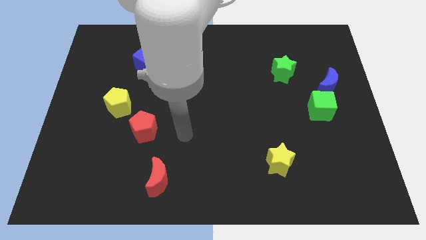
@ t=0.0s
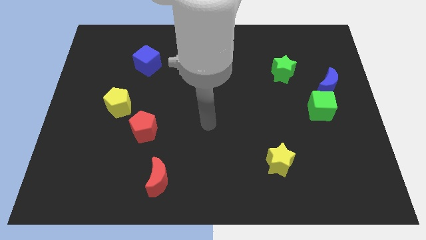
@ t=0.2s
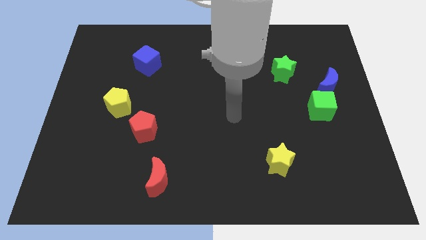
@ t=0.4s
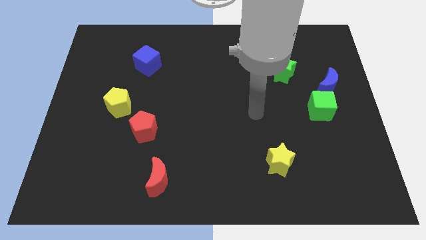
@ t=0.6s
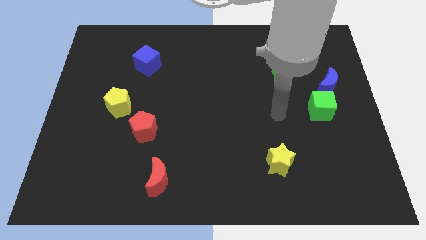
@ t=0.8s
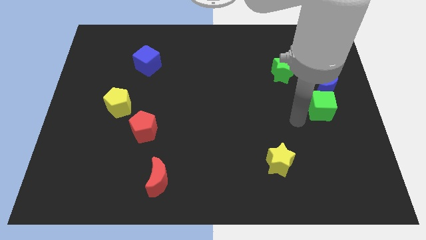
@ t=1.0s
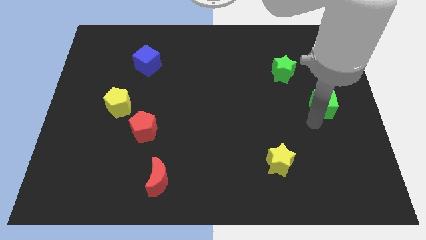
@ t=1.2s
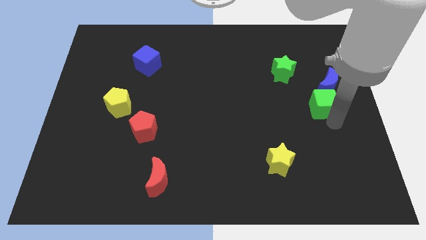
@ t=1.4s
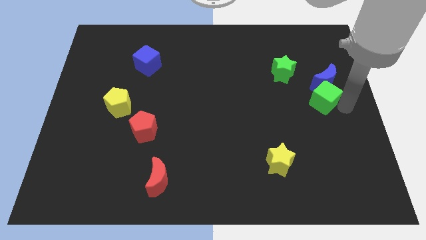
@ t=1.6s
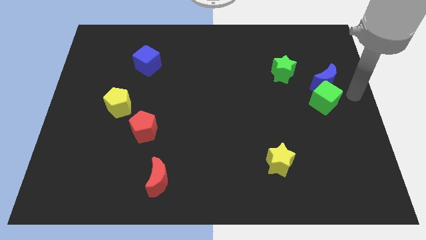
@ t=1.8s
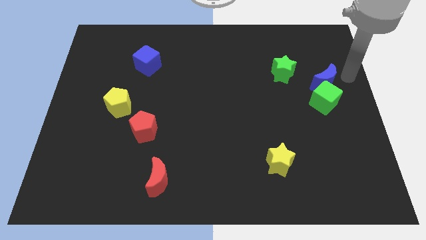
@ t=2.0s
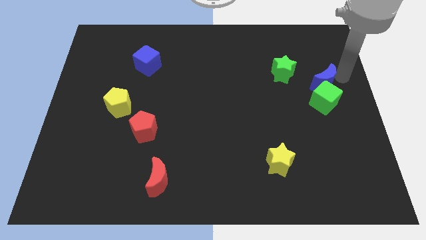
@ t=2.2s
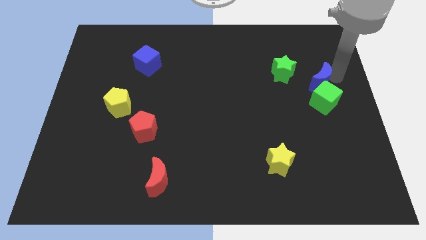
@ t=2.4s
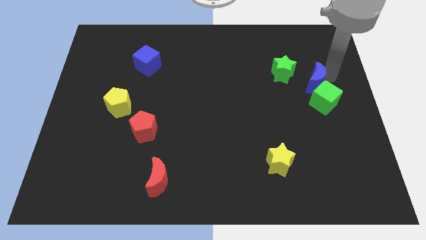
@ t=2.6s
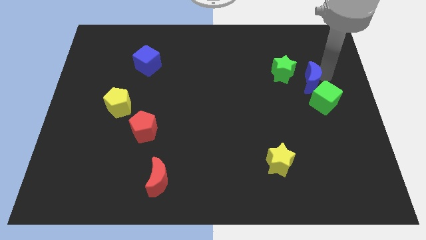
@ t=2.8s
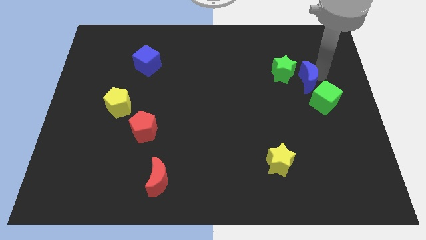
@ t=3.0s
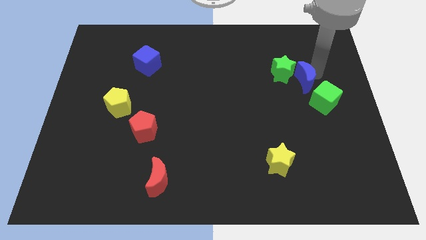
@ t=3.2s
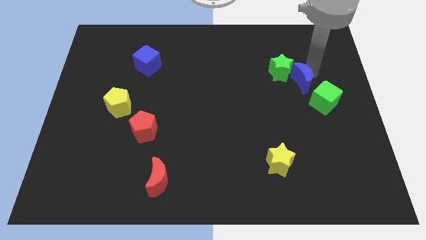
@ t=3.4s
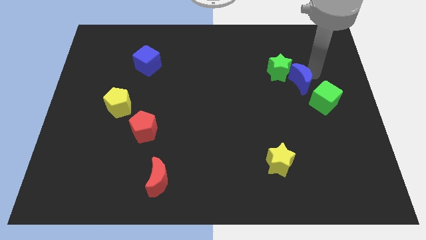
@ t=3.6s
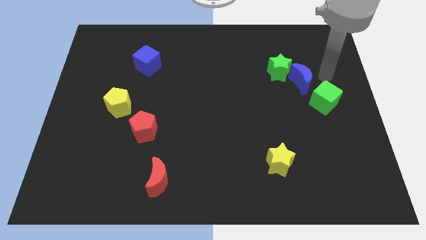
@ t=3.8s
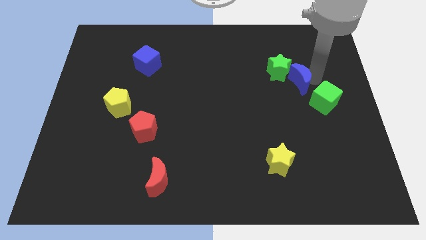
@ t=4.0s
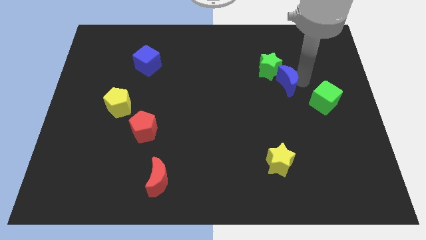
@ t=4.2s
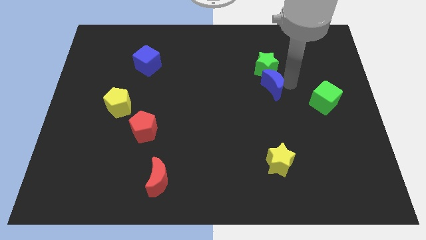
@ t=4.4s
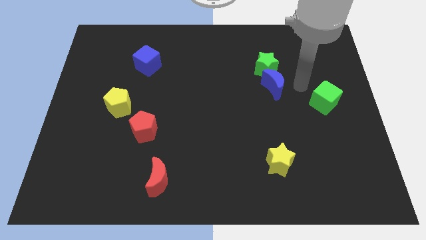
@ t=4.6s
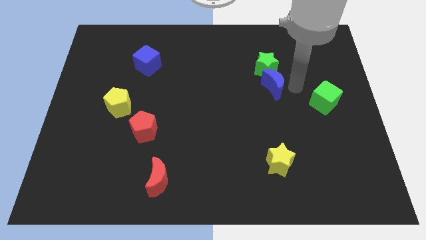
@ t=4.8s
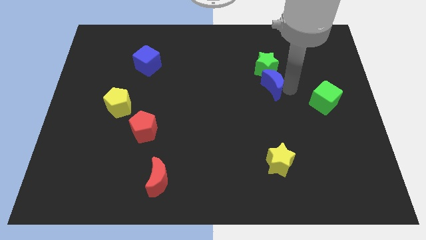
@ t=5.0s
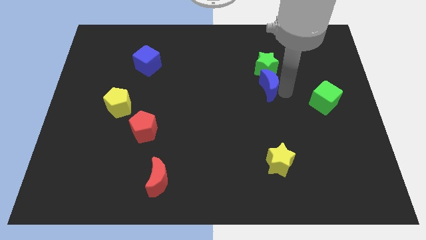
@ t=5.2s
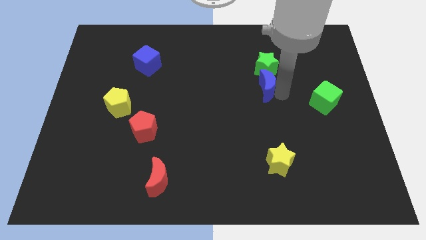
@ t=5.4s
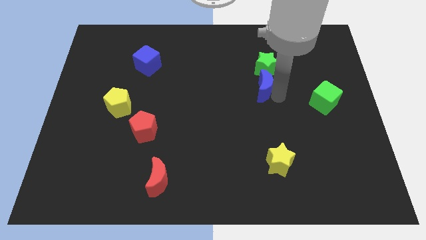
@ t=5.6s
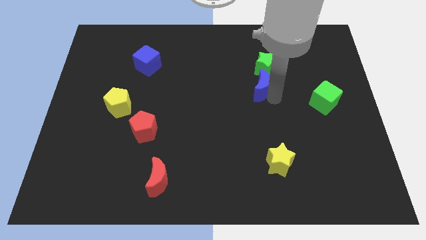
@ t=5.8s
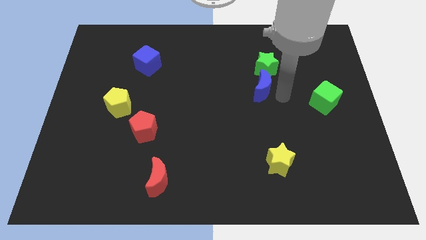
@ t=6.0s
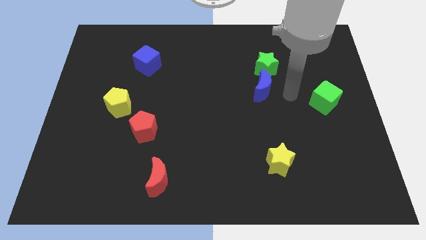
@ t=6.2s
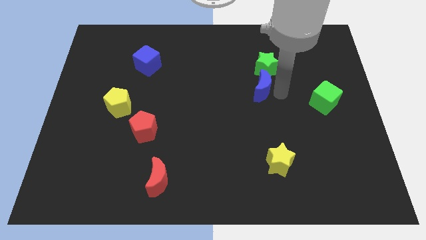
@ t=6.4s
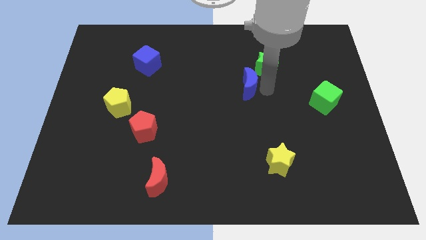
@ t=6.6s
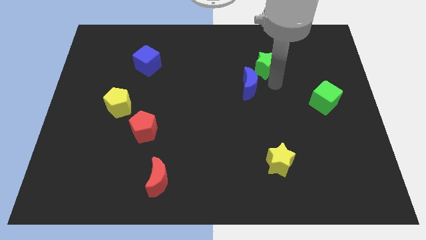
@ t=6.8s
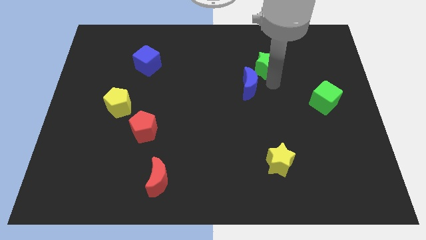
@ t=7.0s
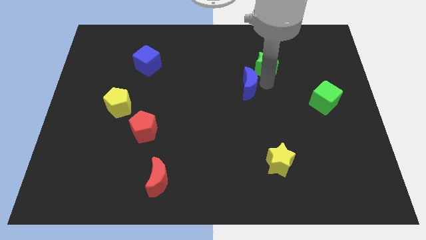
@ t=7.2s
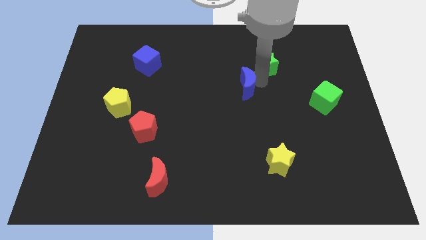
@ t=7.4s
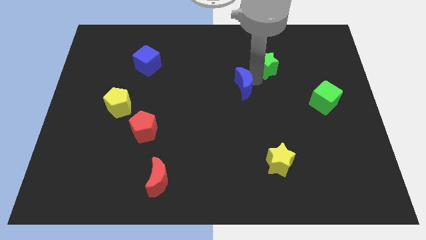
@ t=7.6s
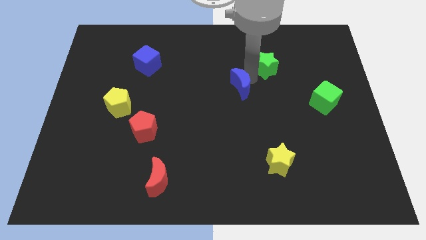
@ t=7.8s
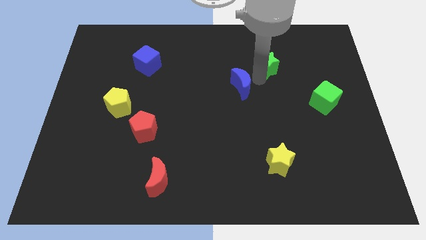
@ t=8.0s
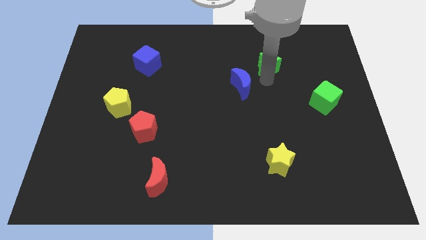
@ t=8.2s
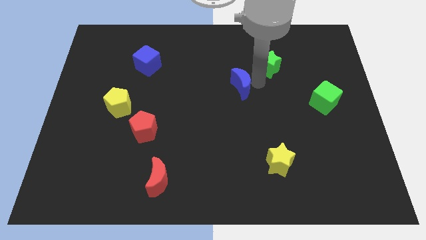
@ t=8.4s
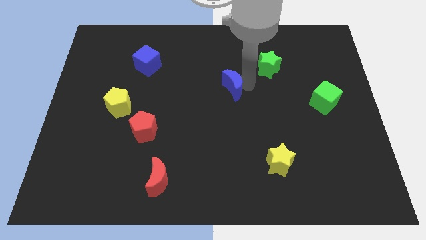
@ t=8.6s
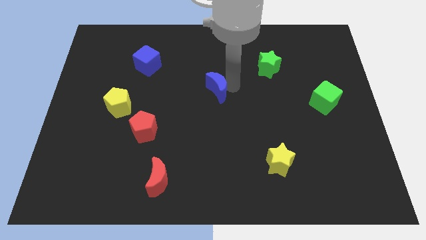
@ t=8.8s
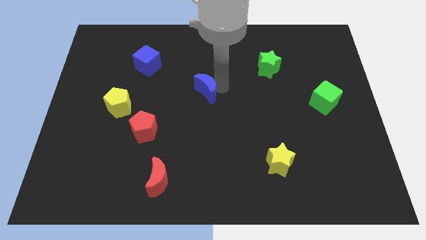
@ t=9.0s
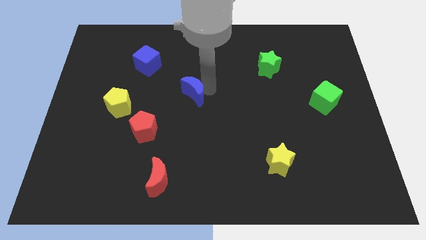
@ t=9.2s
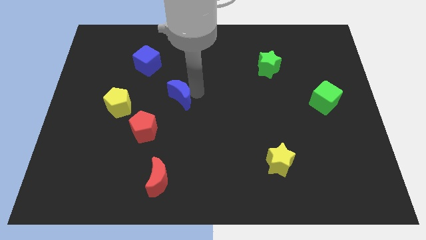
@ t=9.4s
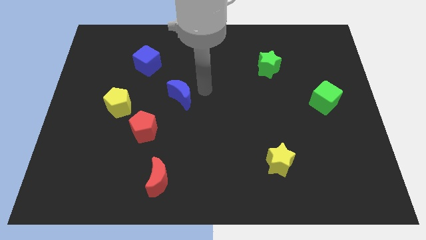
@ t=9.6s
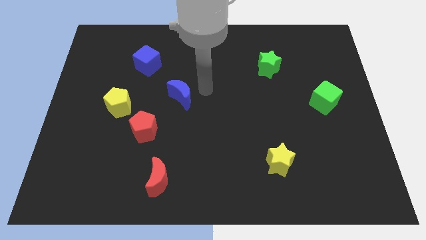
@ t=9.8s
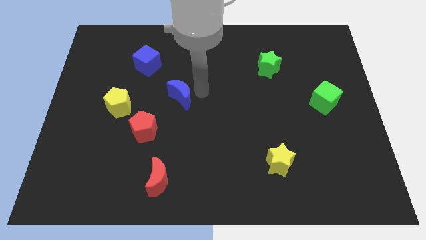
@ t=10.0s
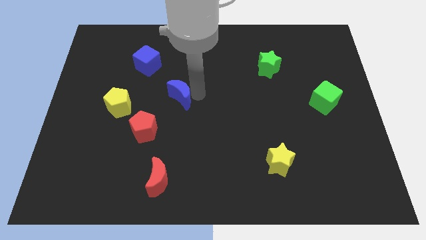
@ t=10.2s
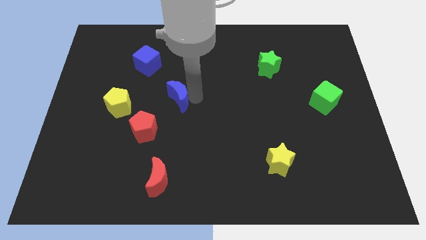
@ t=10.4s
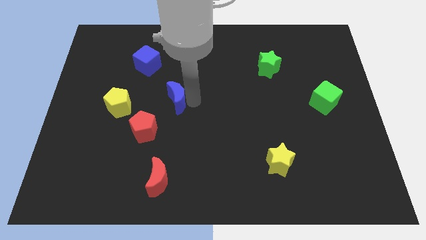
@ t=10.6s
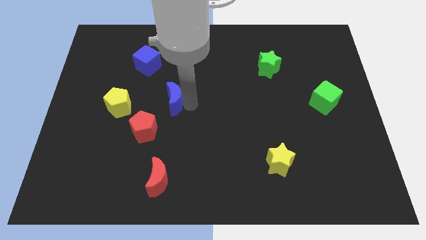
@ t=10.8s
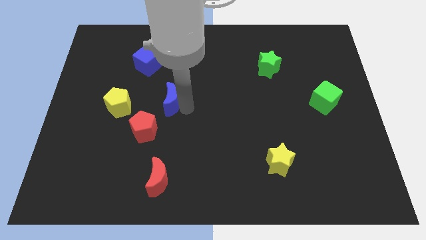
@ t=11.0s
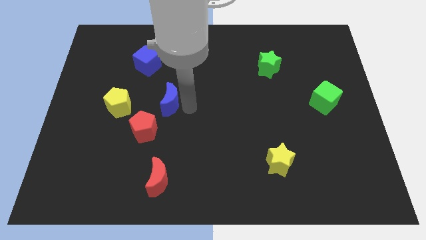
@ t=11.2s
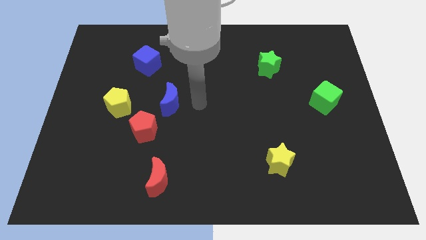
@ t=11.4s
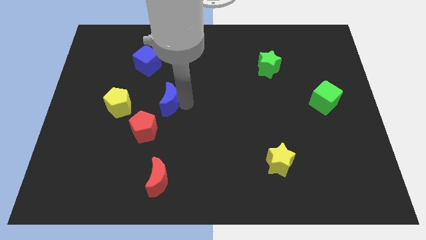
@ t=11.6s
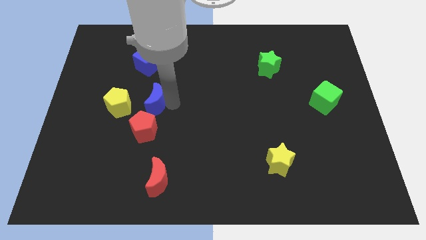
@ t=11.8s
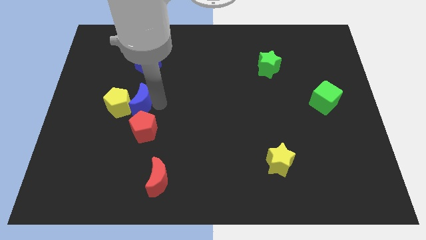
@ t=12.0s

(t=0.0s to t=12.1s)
move the blue moon next to the yellow pentagon

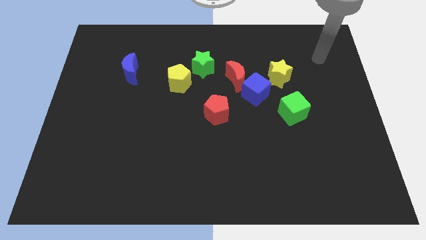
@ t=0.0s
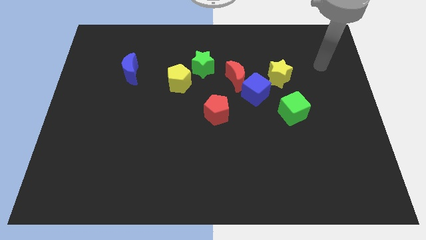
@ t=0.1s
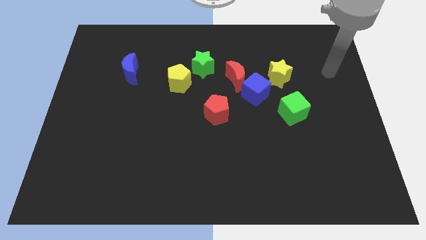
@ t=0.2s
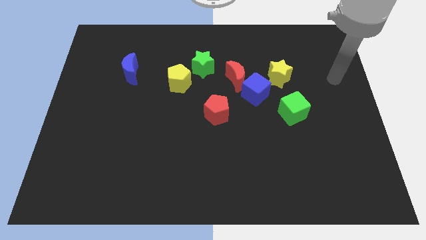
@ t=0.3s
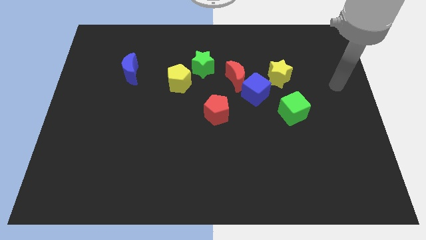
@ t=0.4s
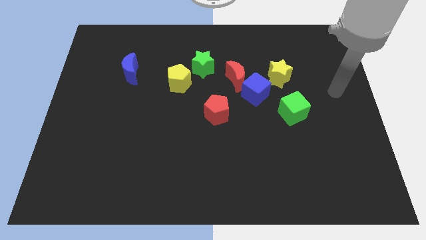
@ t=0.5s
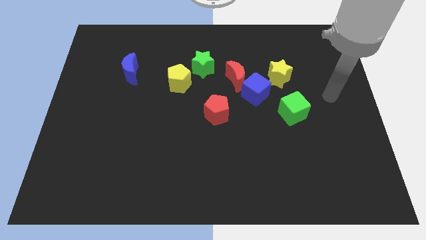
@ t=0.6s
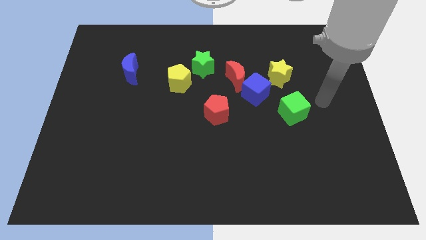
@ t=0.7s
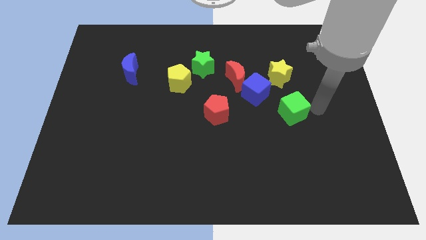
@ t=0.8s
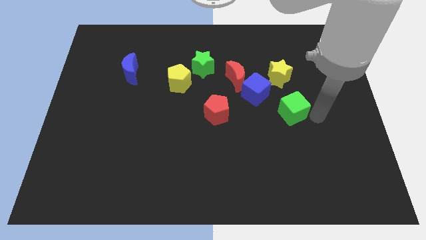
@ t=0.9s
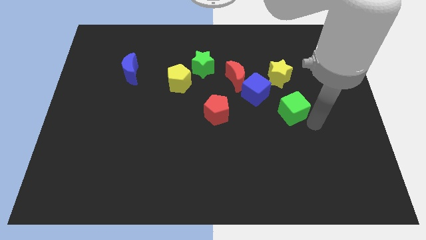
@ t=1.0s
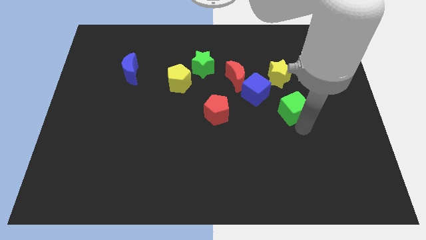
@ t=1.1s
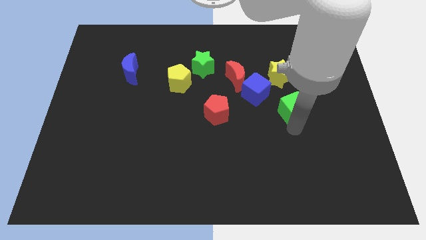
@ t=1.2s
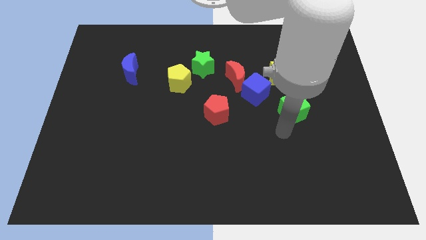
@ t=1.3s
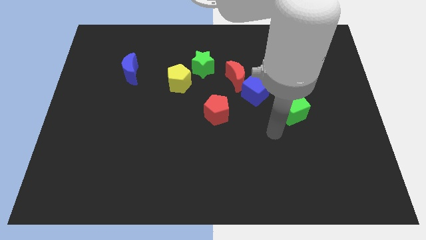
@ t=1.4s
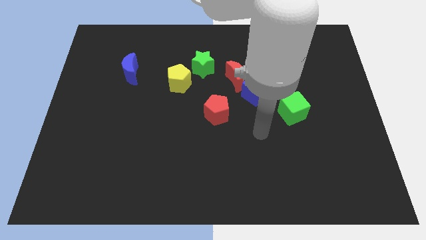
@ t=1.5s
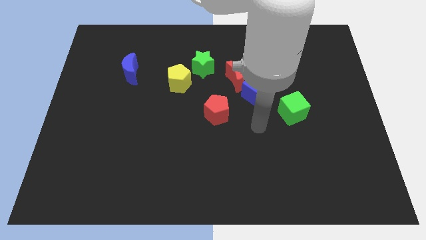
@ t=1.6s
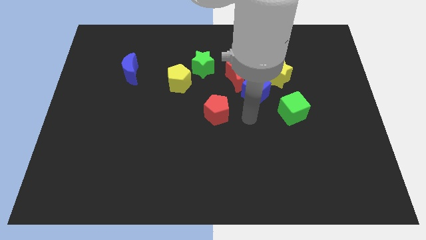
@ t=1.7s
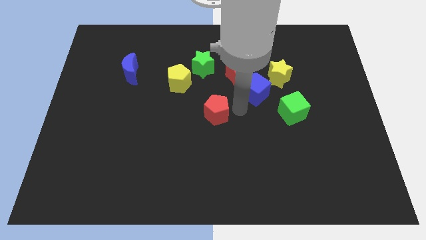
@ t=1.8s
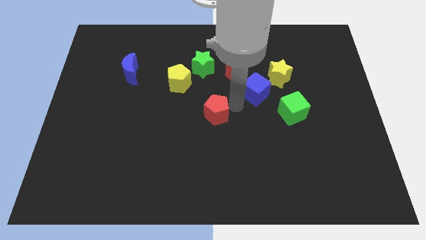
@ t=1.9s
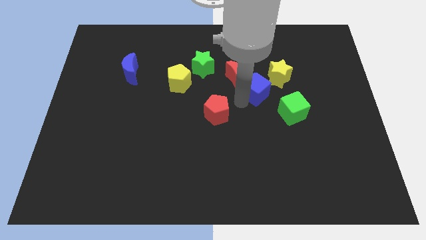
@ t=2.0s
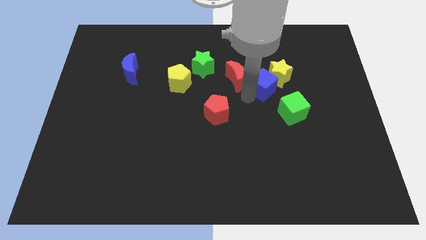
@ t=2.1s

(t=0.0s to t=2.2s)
move the blue cube next to the yellow star
